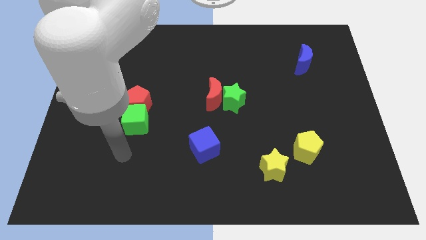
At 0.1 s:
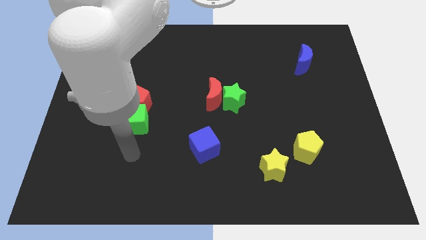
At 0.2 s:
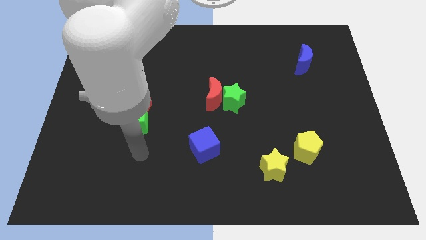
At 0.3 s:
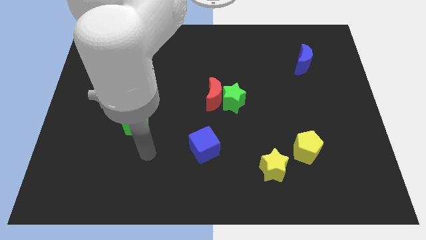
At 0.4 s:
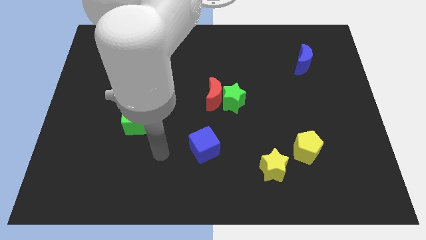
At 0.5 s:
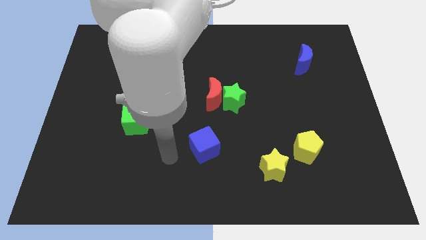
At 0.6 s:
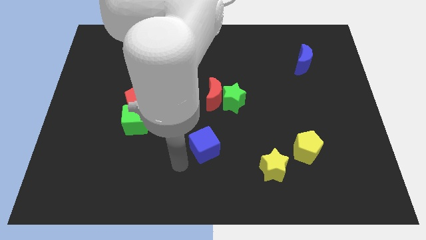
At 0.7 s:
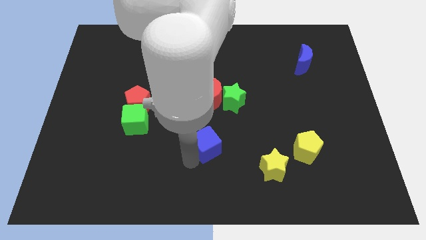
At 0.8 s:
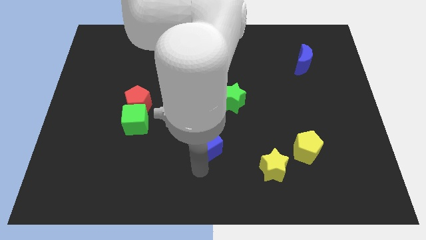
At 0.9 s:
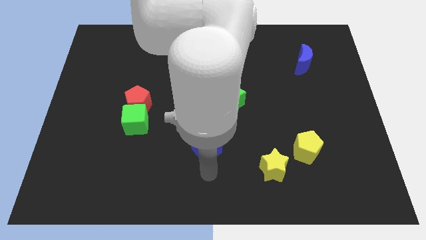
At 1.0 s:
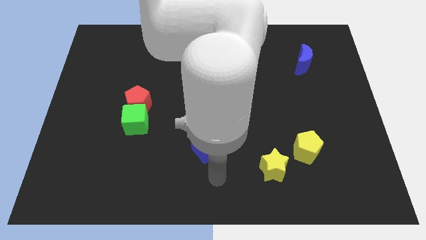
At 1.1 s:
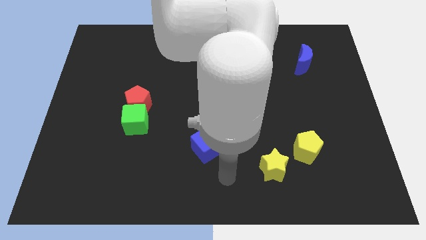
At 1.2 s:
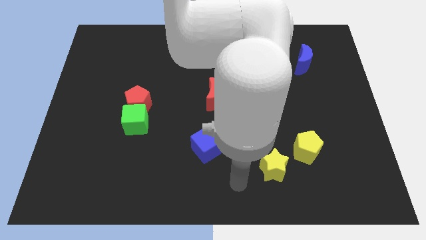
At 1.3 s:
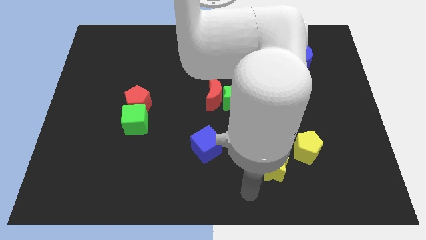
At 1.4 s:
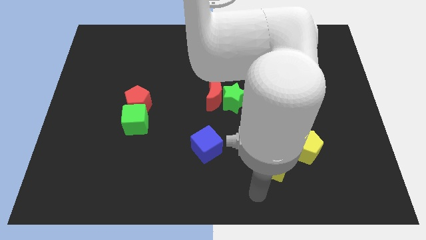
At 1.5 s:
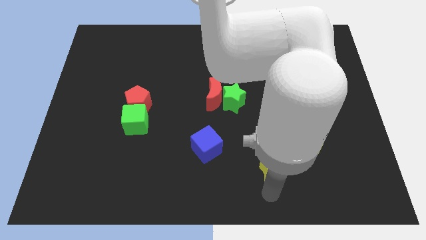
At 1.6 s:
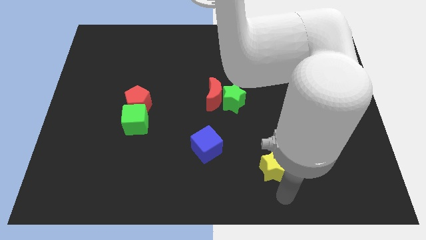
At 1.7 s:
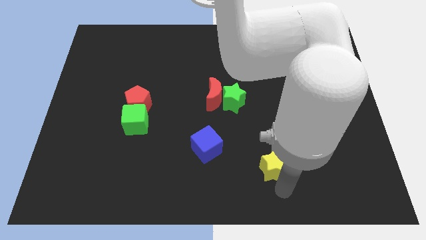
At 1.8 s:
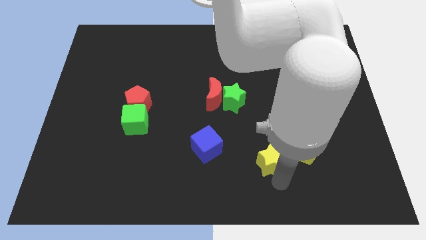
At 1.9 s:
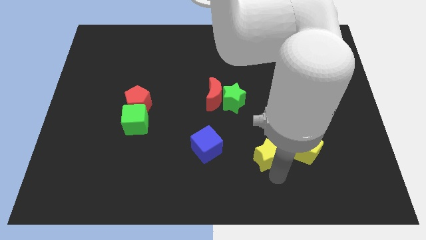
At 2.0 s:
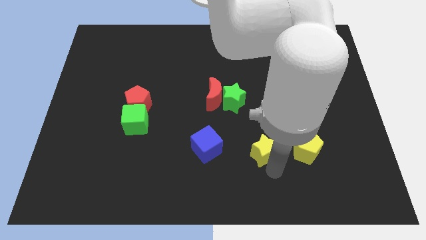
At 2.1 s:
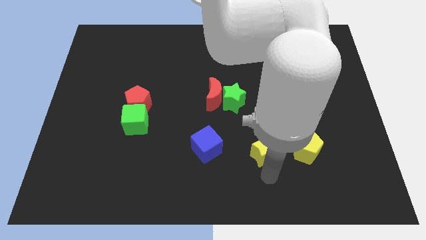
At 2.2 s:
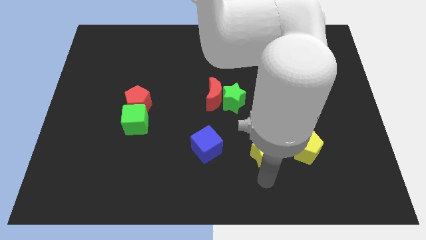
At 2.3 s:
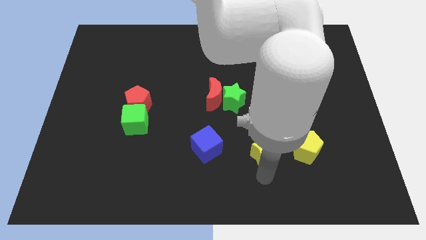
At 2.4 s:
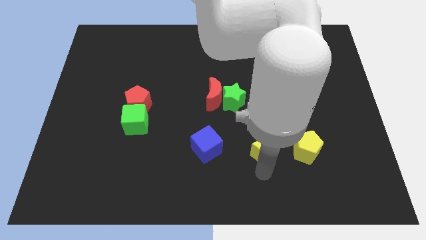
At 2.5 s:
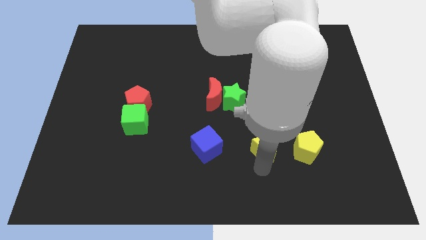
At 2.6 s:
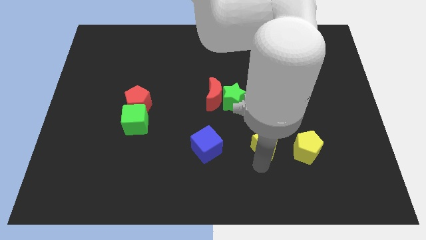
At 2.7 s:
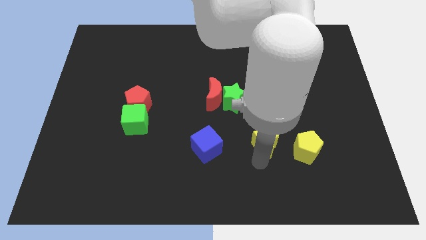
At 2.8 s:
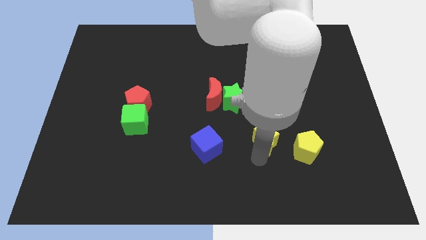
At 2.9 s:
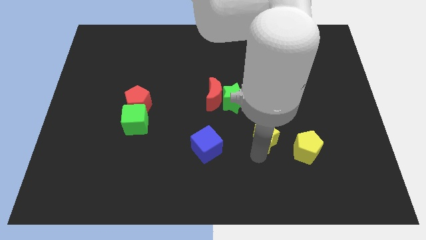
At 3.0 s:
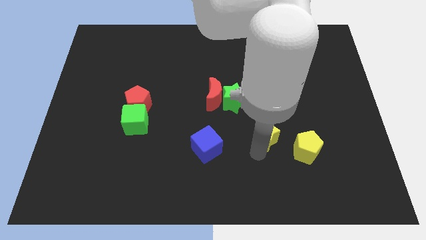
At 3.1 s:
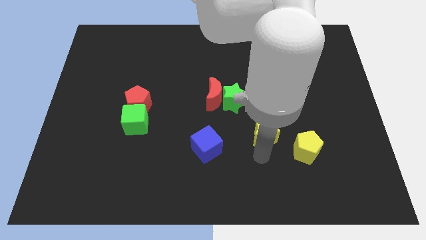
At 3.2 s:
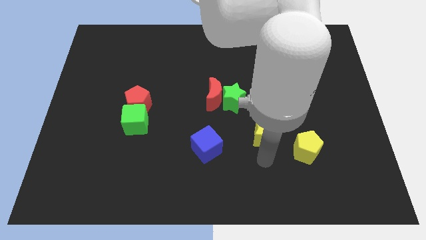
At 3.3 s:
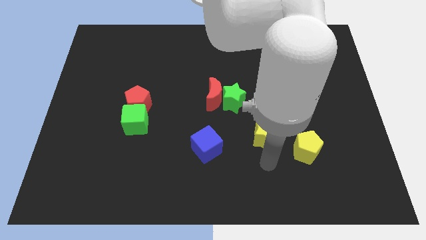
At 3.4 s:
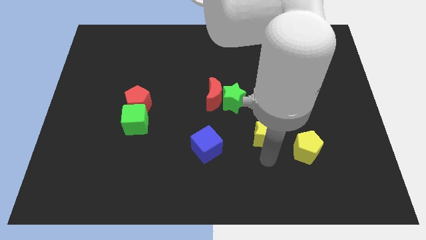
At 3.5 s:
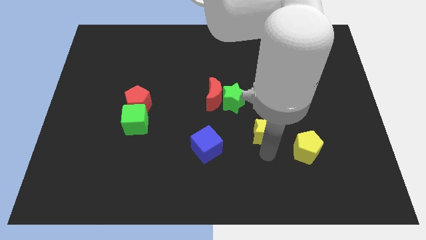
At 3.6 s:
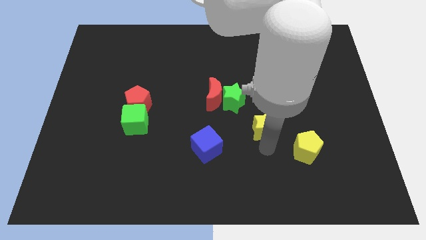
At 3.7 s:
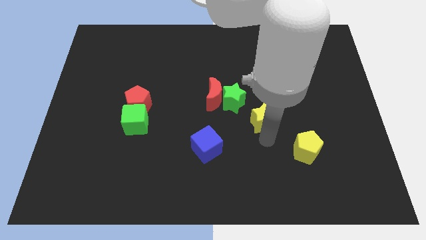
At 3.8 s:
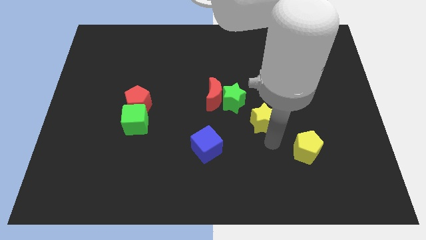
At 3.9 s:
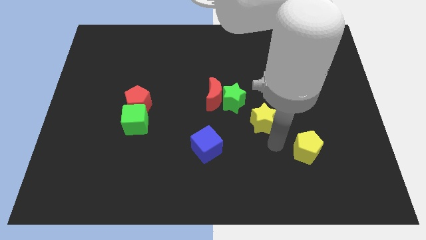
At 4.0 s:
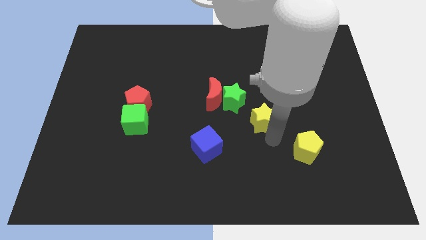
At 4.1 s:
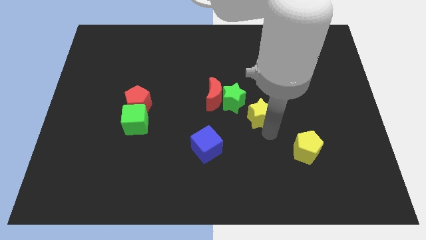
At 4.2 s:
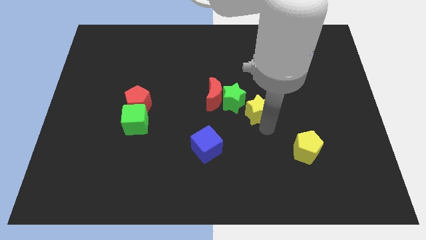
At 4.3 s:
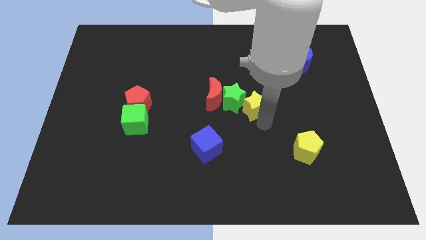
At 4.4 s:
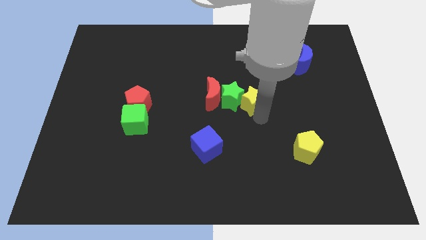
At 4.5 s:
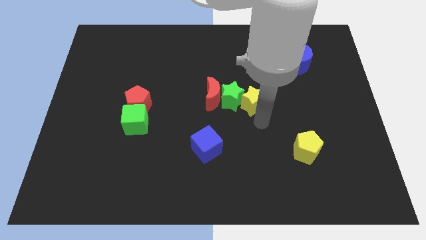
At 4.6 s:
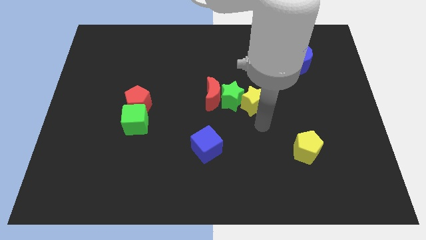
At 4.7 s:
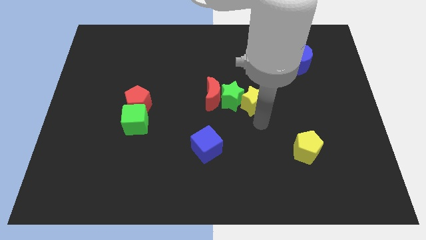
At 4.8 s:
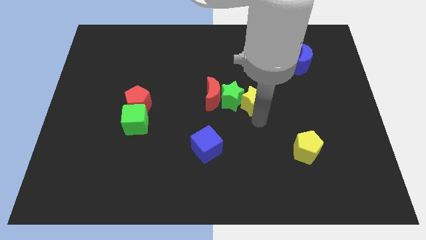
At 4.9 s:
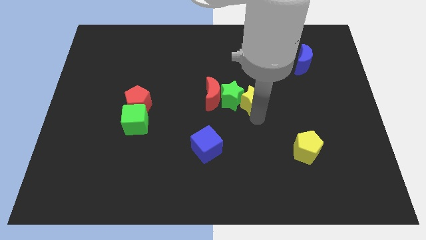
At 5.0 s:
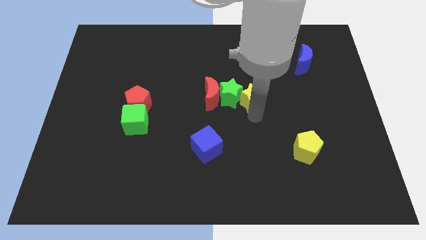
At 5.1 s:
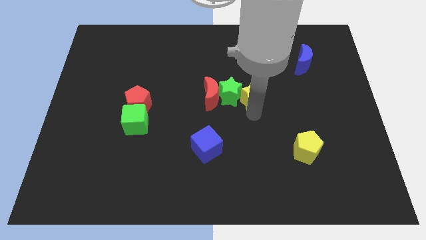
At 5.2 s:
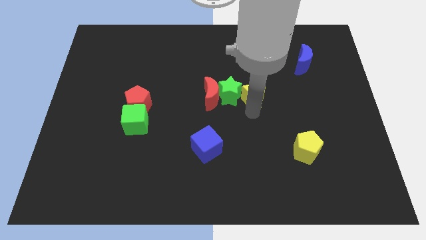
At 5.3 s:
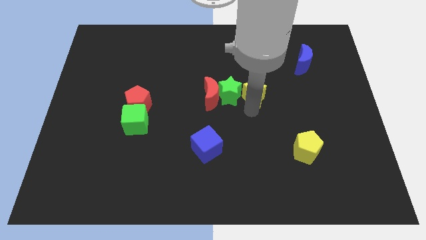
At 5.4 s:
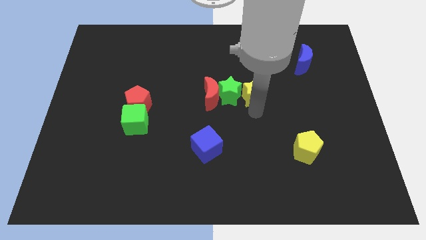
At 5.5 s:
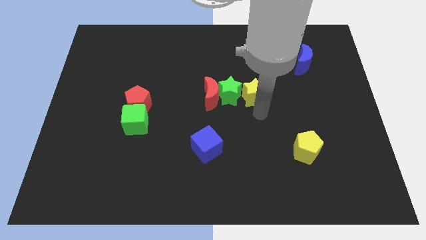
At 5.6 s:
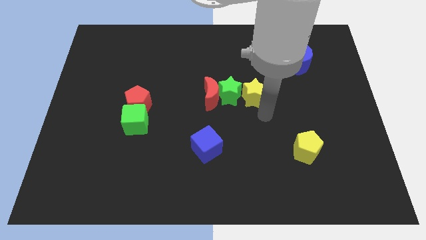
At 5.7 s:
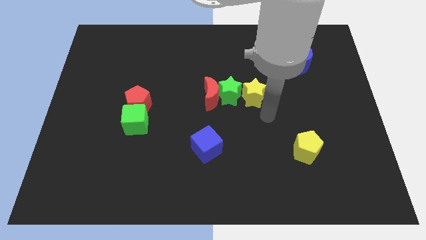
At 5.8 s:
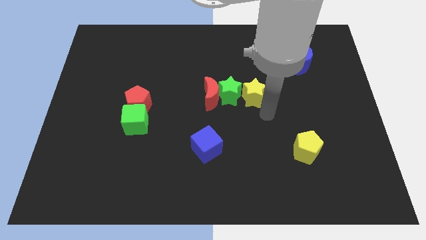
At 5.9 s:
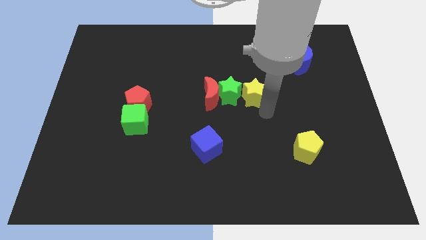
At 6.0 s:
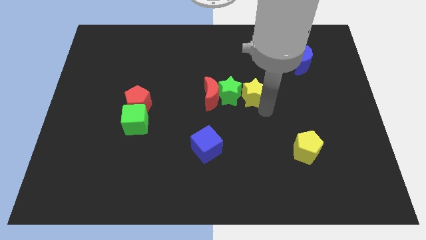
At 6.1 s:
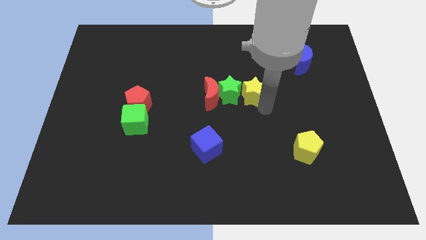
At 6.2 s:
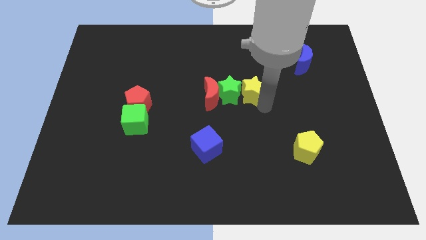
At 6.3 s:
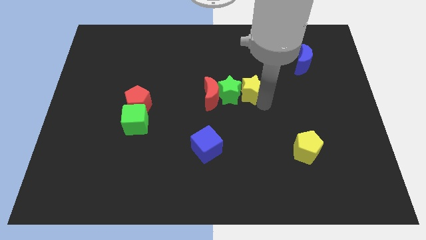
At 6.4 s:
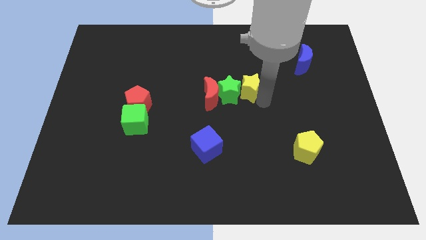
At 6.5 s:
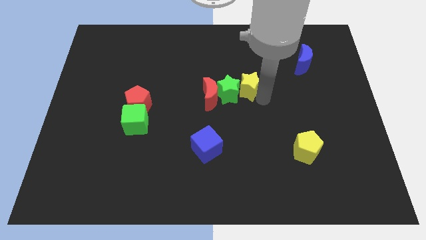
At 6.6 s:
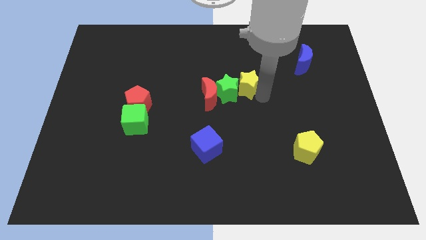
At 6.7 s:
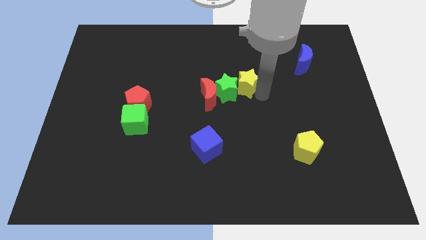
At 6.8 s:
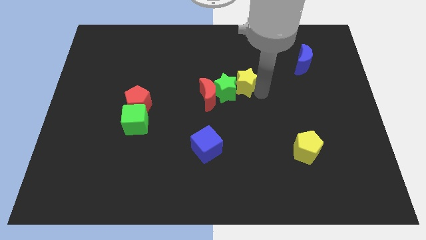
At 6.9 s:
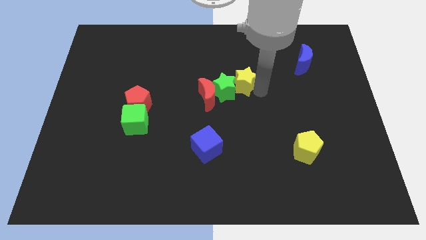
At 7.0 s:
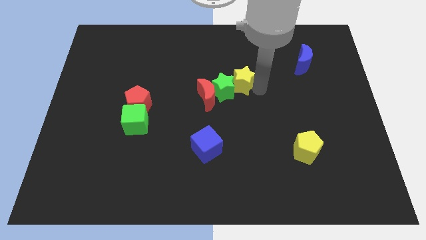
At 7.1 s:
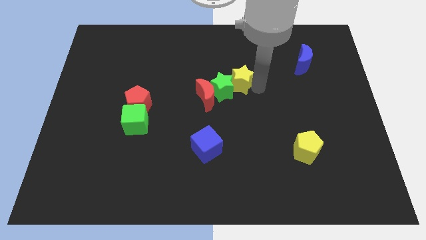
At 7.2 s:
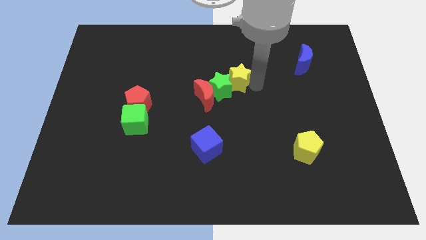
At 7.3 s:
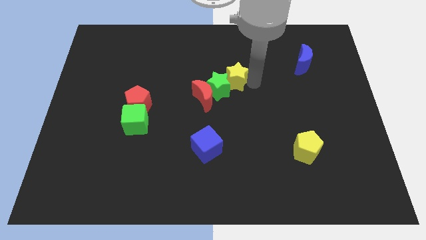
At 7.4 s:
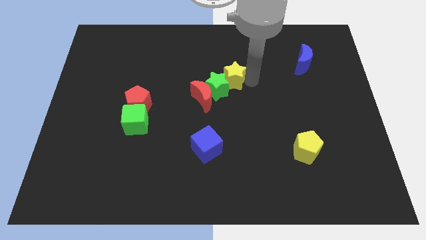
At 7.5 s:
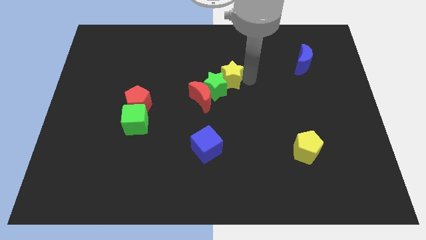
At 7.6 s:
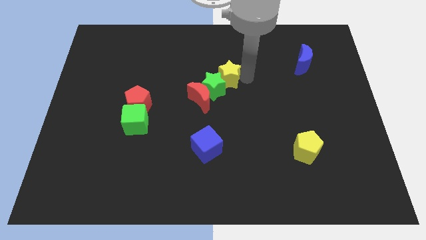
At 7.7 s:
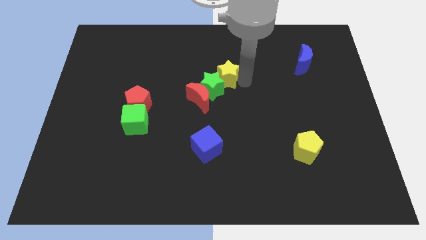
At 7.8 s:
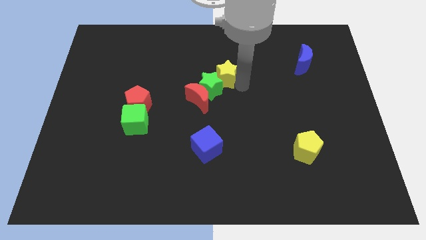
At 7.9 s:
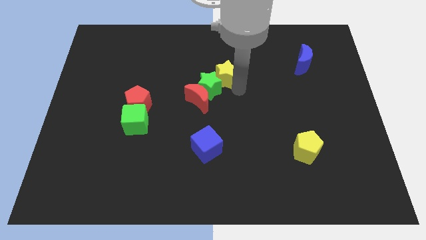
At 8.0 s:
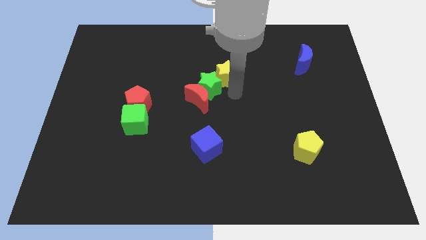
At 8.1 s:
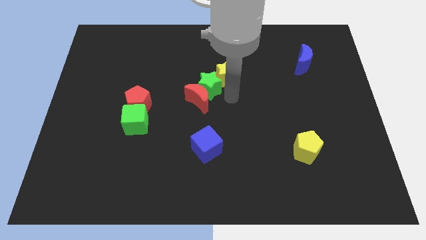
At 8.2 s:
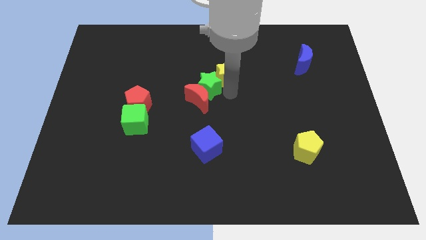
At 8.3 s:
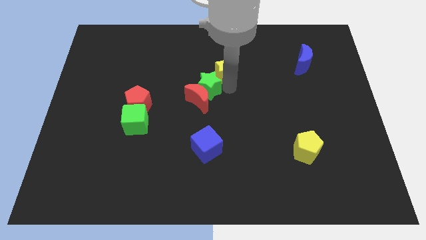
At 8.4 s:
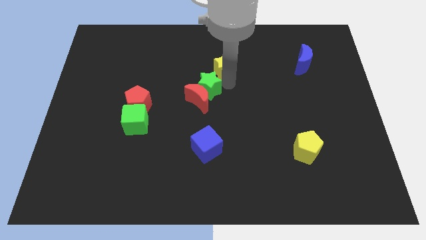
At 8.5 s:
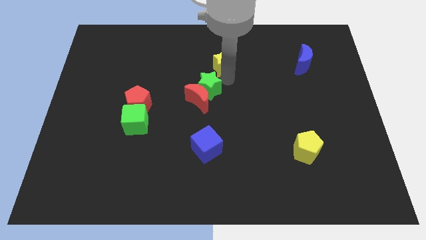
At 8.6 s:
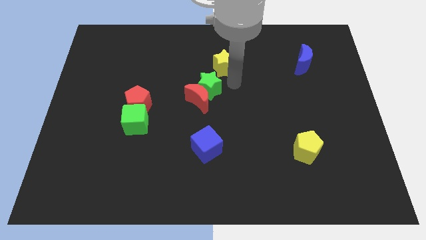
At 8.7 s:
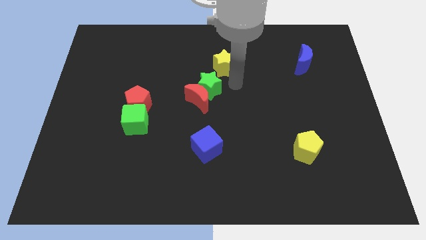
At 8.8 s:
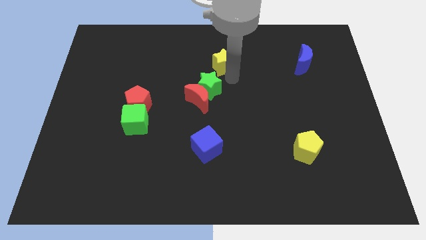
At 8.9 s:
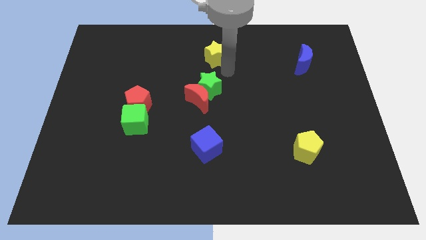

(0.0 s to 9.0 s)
move the yellow star to the top side
